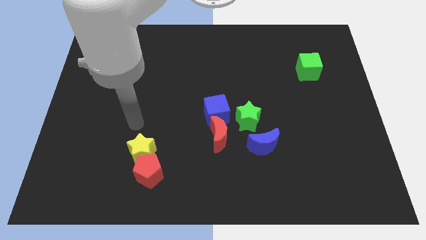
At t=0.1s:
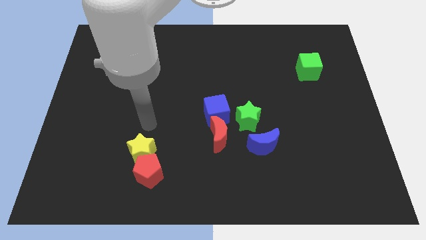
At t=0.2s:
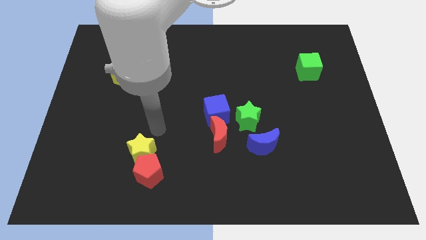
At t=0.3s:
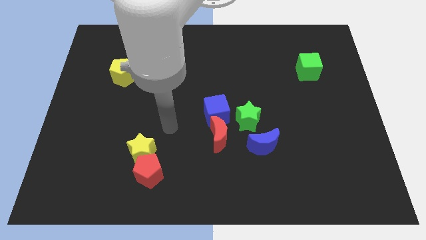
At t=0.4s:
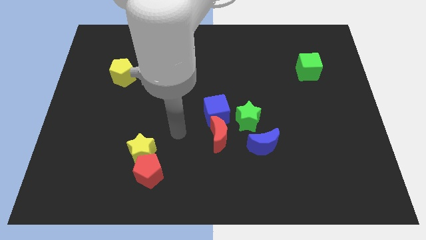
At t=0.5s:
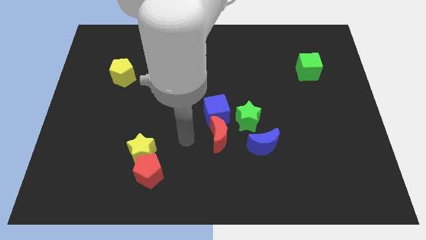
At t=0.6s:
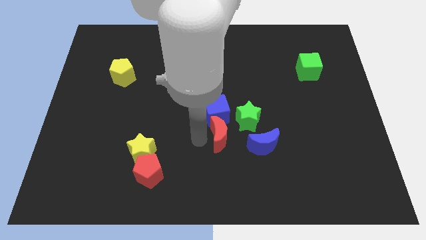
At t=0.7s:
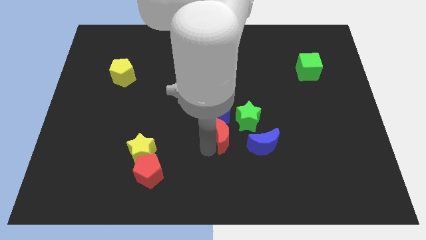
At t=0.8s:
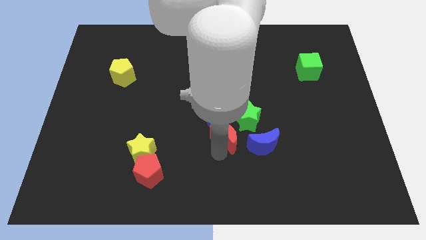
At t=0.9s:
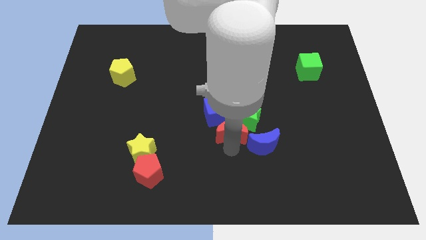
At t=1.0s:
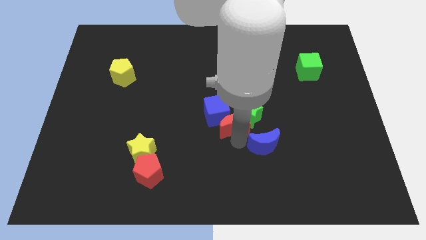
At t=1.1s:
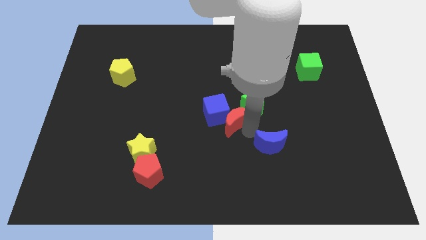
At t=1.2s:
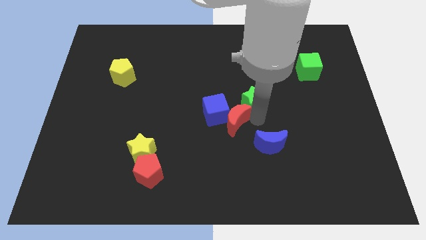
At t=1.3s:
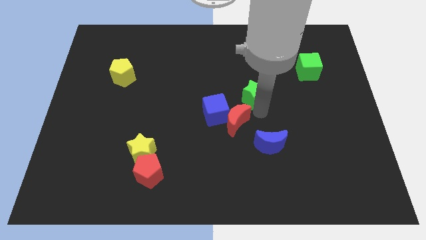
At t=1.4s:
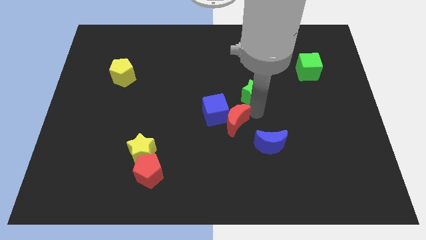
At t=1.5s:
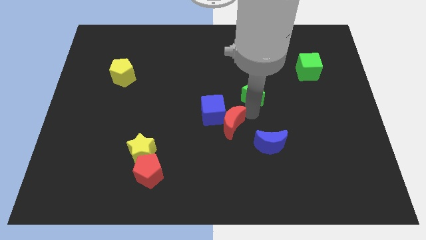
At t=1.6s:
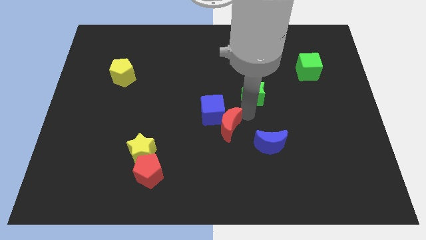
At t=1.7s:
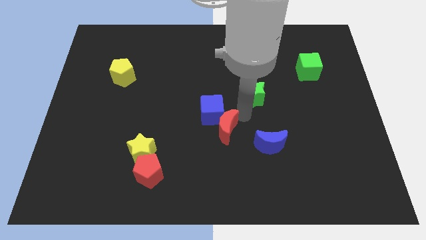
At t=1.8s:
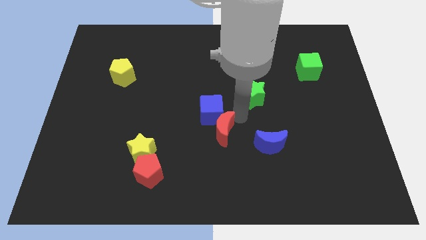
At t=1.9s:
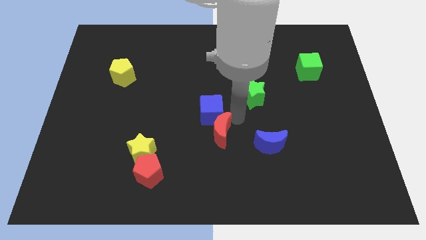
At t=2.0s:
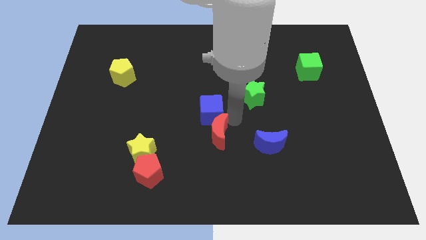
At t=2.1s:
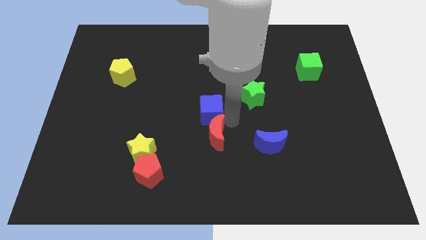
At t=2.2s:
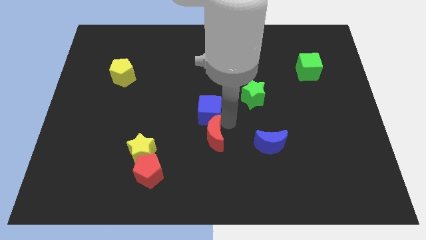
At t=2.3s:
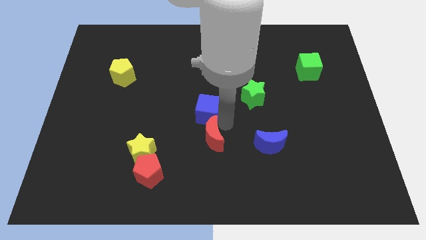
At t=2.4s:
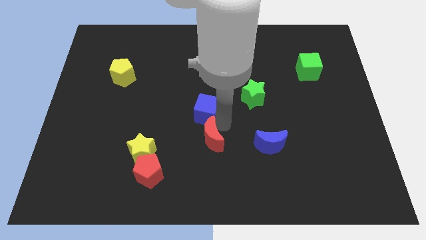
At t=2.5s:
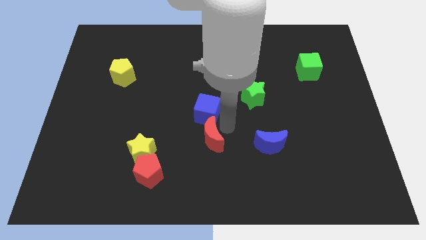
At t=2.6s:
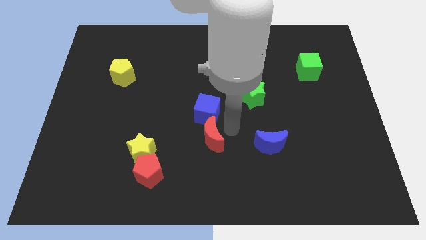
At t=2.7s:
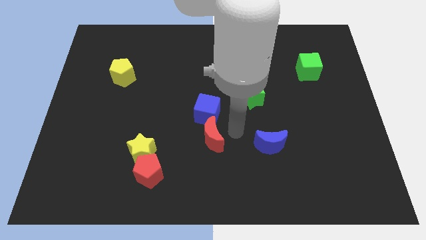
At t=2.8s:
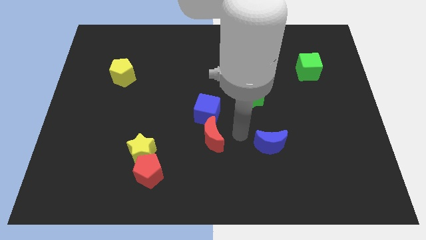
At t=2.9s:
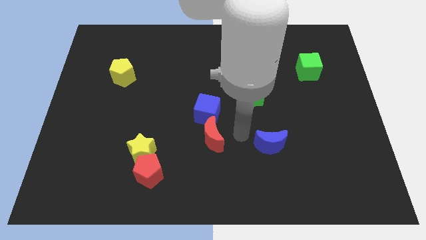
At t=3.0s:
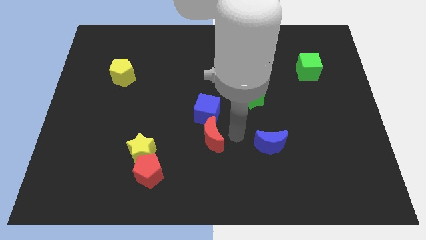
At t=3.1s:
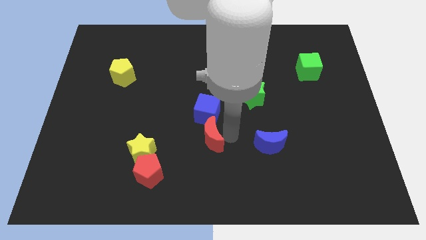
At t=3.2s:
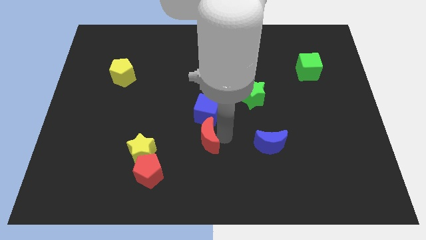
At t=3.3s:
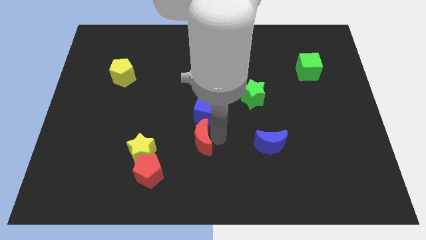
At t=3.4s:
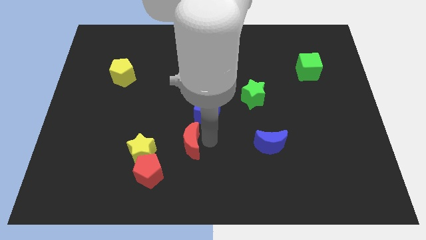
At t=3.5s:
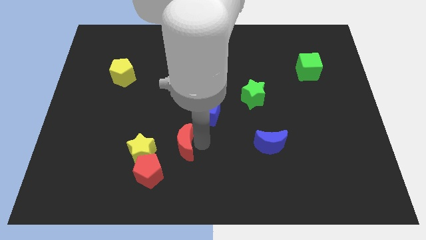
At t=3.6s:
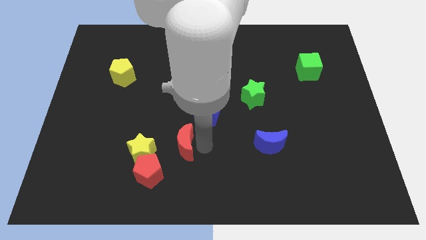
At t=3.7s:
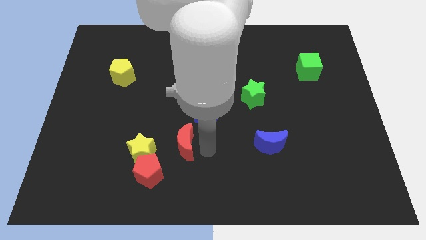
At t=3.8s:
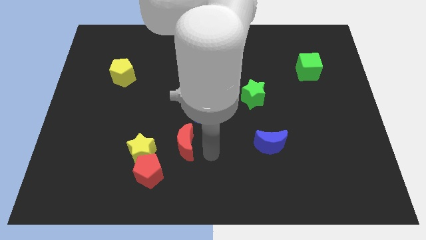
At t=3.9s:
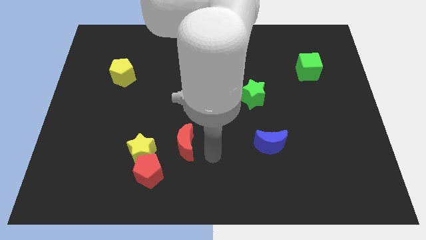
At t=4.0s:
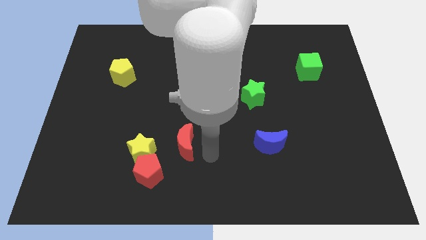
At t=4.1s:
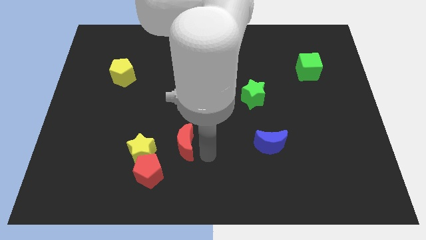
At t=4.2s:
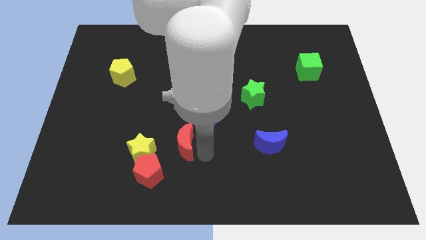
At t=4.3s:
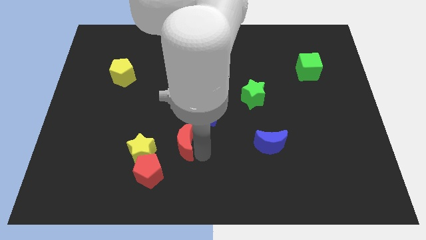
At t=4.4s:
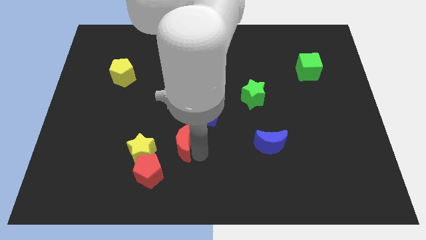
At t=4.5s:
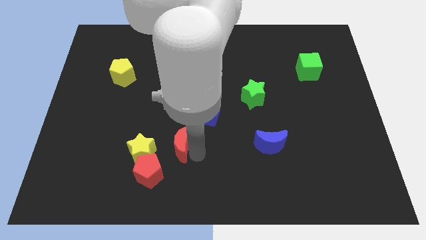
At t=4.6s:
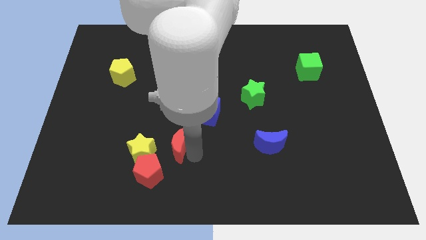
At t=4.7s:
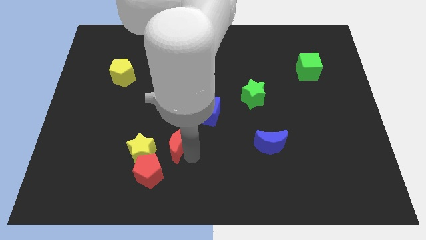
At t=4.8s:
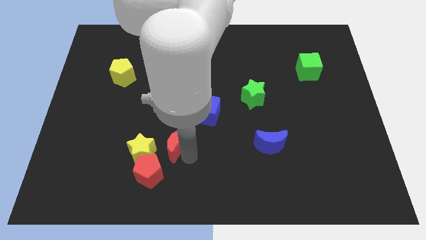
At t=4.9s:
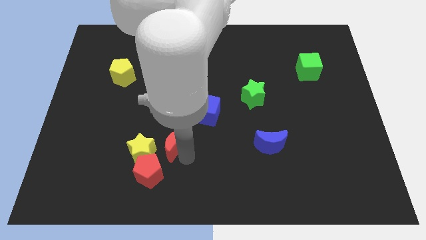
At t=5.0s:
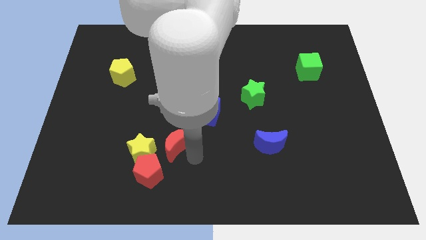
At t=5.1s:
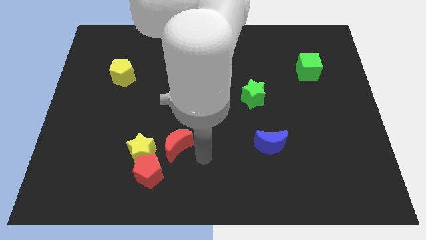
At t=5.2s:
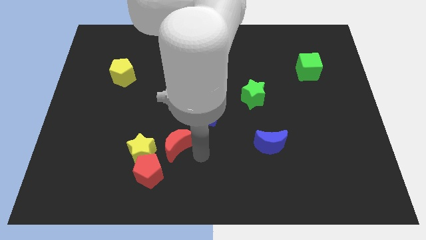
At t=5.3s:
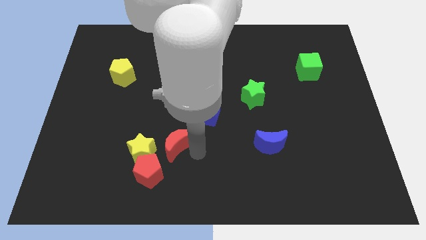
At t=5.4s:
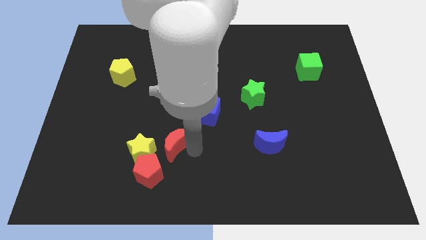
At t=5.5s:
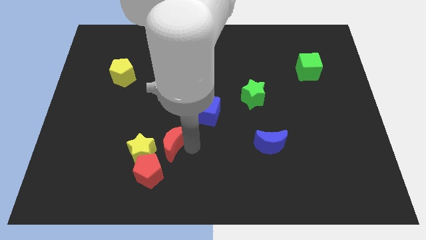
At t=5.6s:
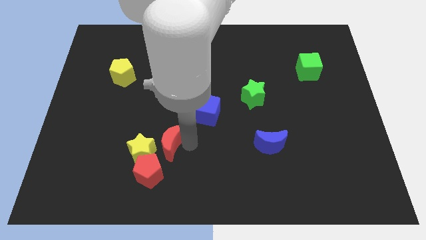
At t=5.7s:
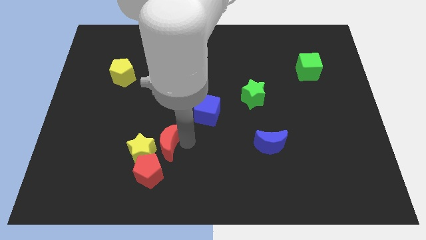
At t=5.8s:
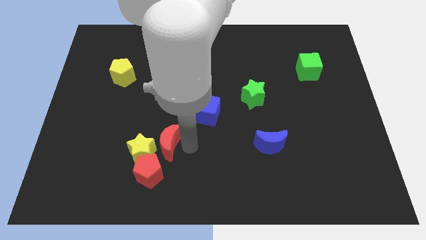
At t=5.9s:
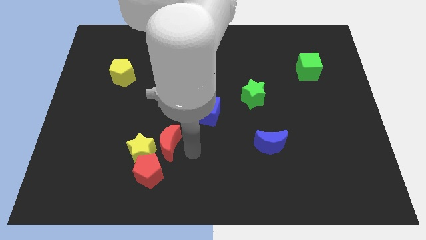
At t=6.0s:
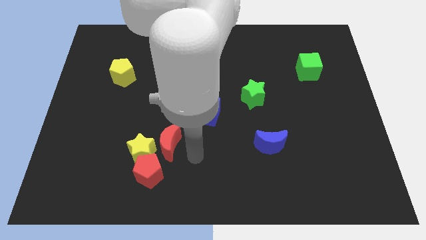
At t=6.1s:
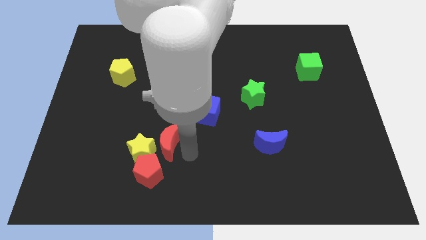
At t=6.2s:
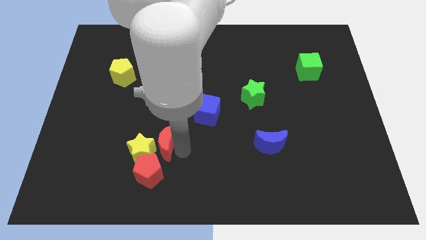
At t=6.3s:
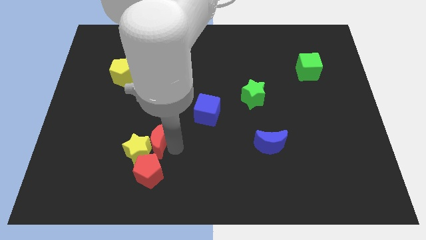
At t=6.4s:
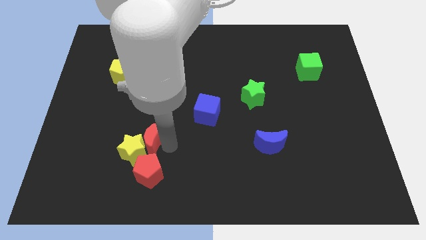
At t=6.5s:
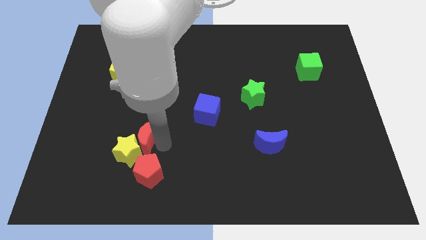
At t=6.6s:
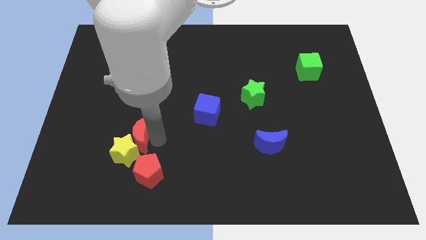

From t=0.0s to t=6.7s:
move the red moon to the top left of the red pentagon
